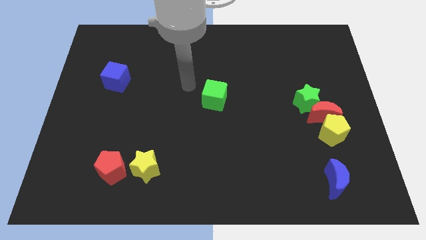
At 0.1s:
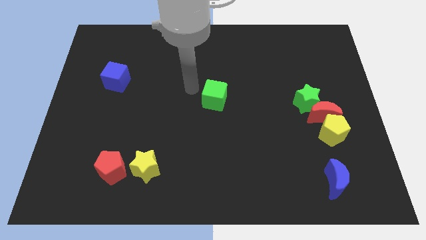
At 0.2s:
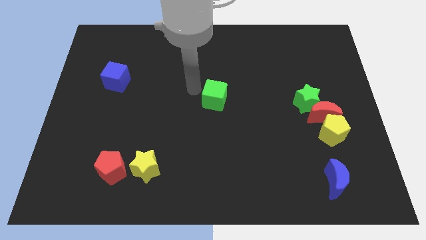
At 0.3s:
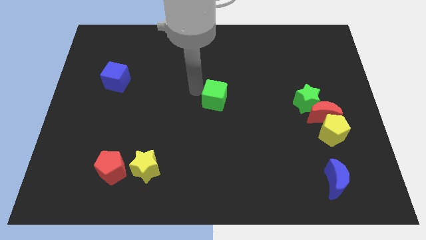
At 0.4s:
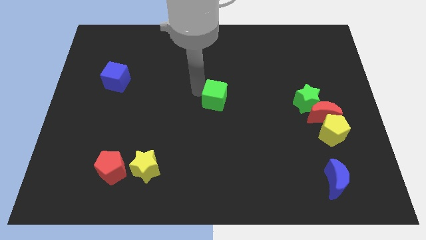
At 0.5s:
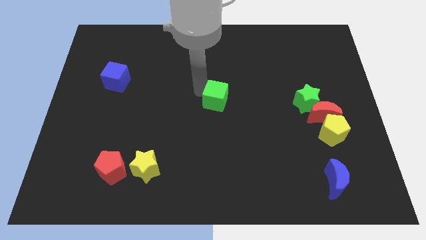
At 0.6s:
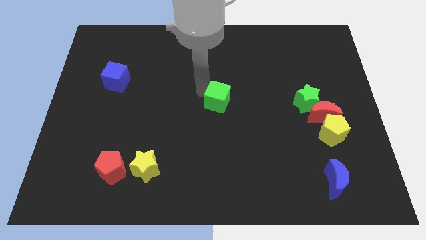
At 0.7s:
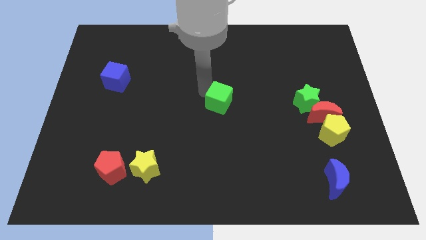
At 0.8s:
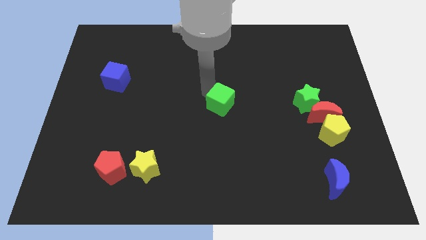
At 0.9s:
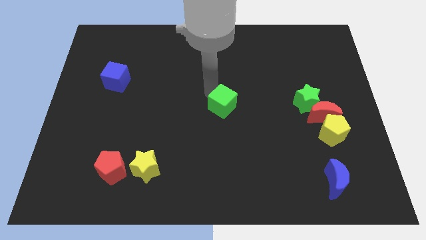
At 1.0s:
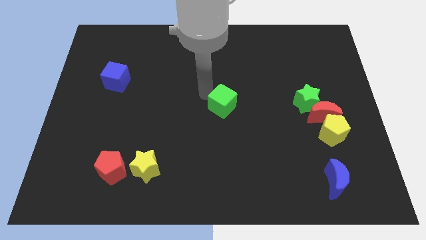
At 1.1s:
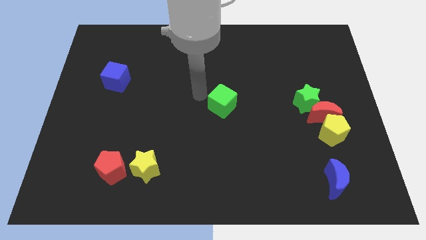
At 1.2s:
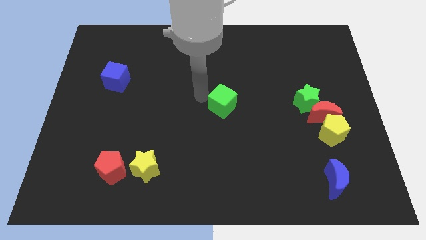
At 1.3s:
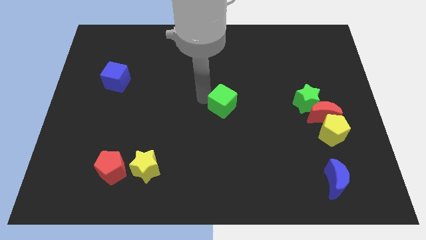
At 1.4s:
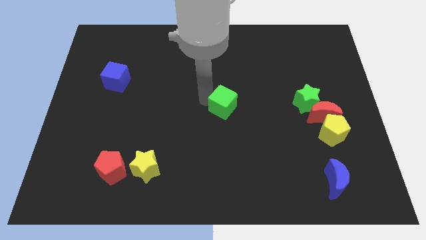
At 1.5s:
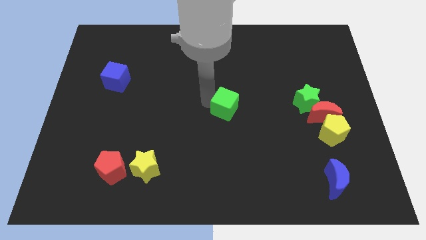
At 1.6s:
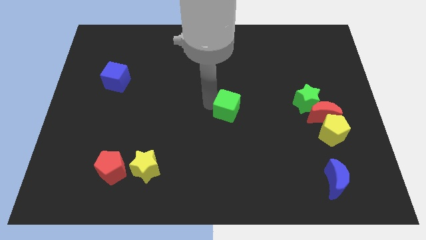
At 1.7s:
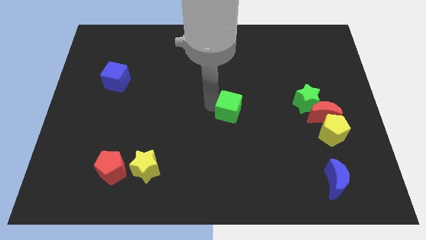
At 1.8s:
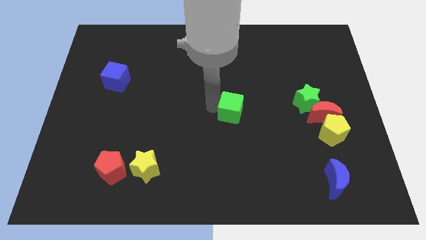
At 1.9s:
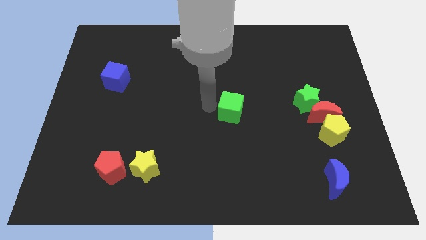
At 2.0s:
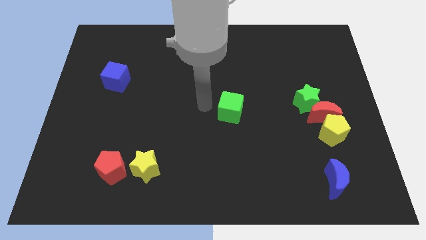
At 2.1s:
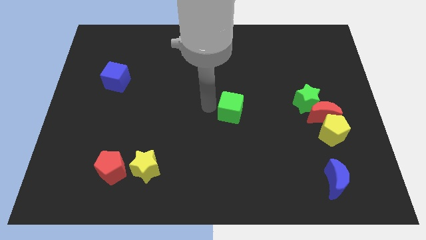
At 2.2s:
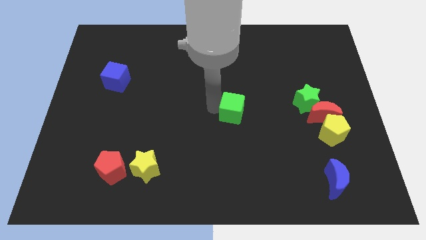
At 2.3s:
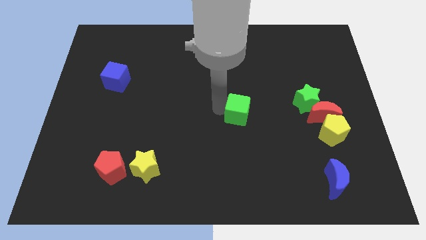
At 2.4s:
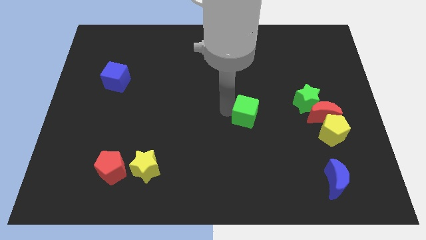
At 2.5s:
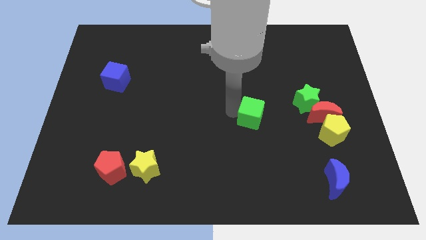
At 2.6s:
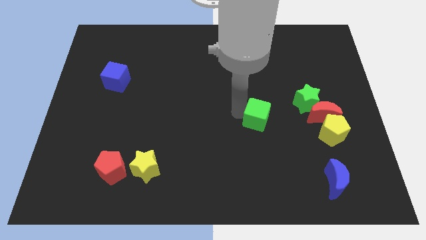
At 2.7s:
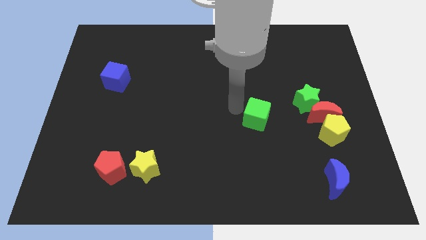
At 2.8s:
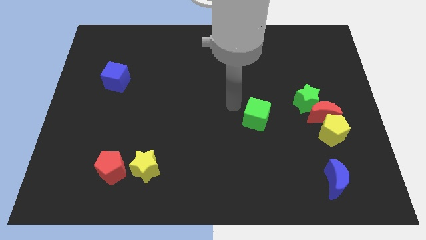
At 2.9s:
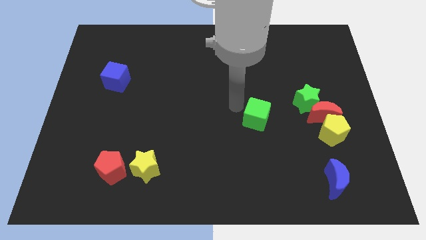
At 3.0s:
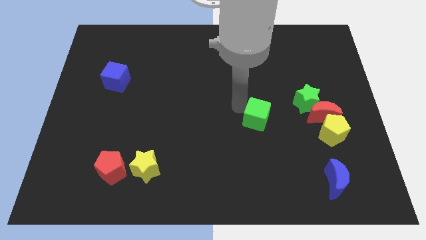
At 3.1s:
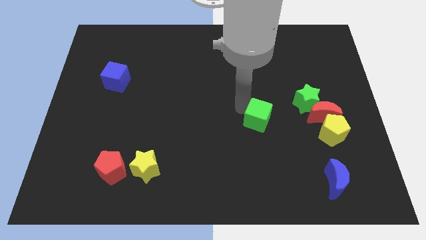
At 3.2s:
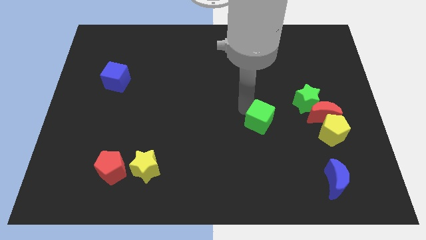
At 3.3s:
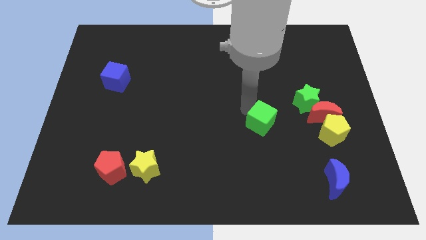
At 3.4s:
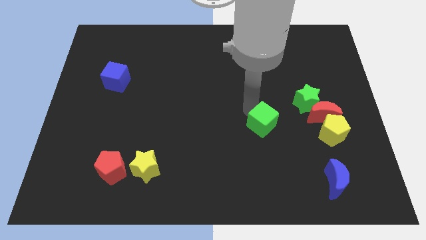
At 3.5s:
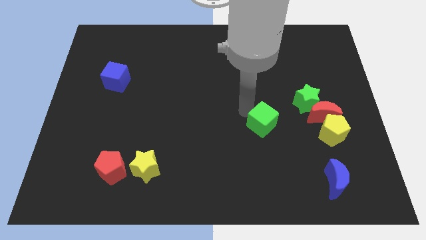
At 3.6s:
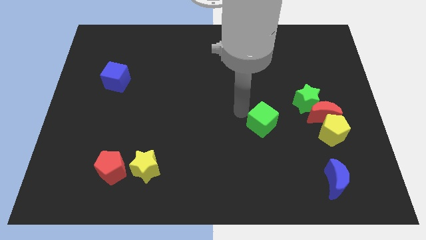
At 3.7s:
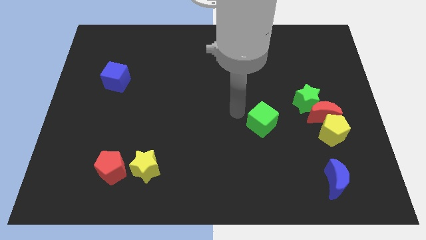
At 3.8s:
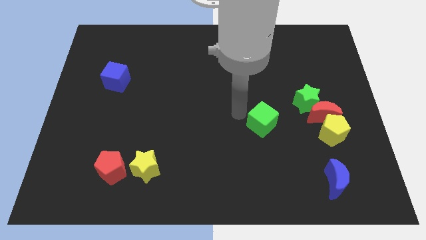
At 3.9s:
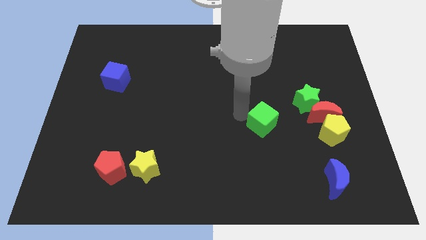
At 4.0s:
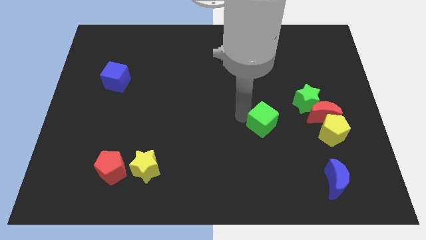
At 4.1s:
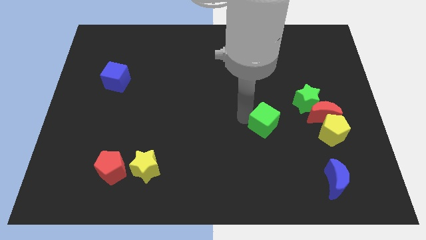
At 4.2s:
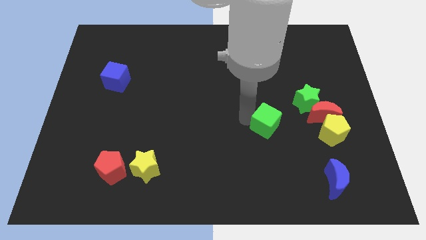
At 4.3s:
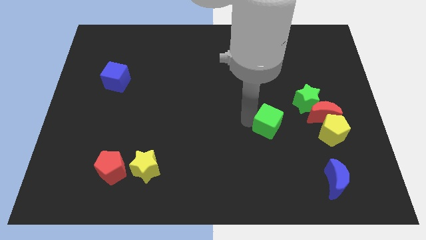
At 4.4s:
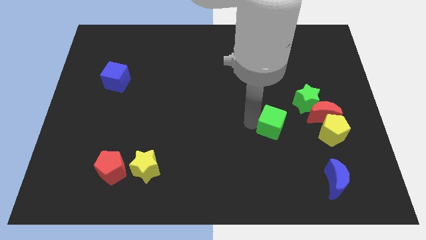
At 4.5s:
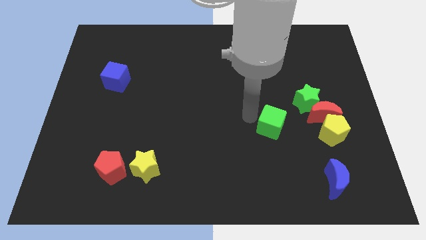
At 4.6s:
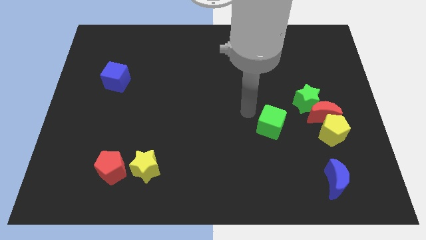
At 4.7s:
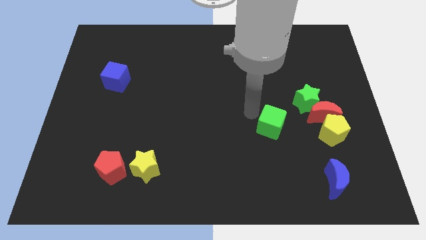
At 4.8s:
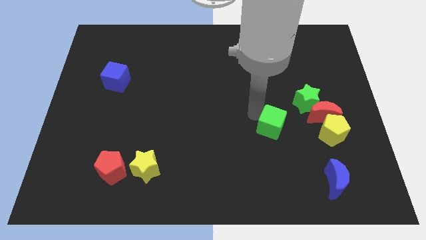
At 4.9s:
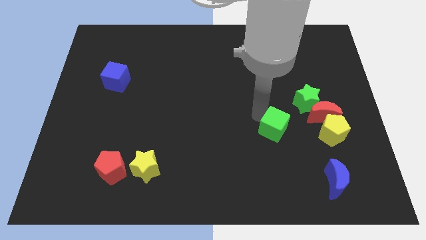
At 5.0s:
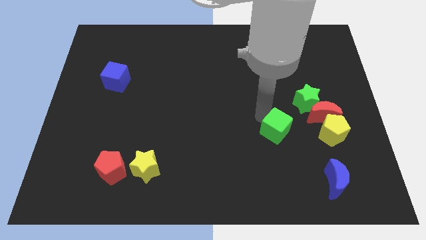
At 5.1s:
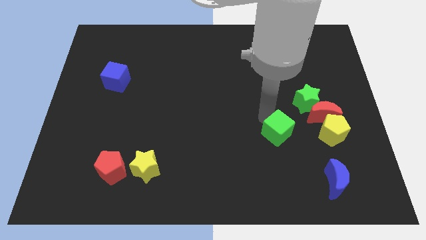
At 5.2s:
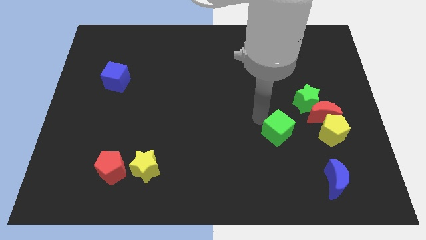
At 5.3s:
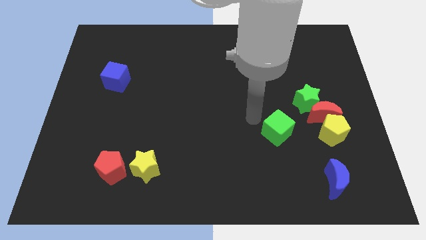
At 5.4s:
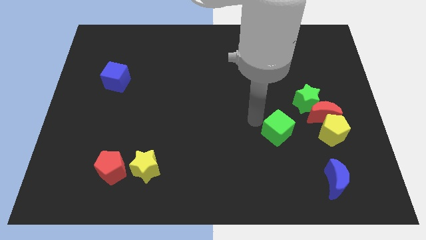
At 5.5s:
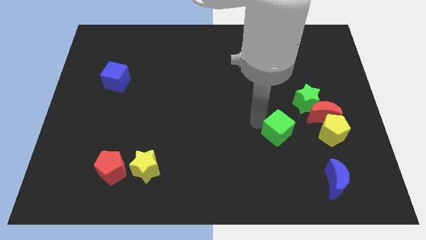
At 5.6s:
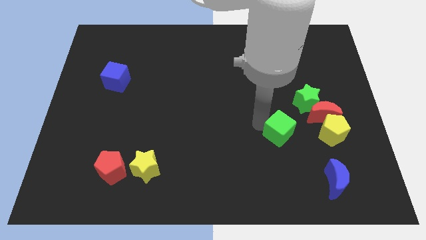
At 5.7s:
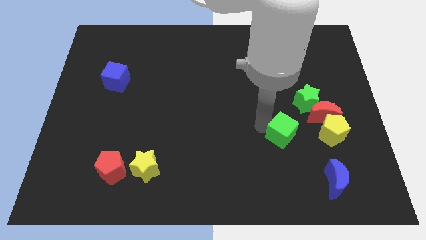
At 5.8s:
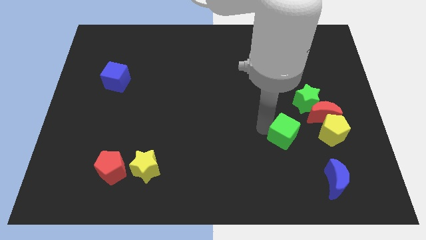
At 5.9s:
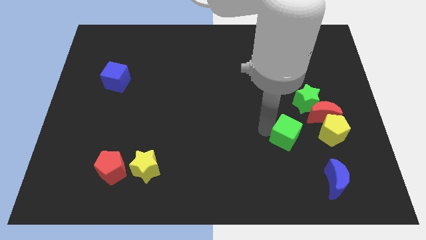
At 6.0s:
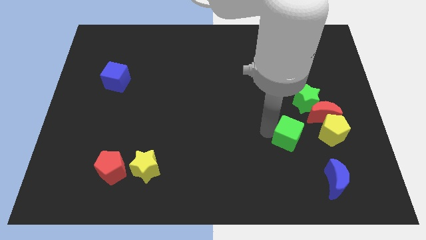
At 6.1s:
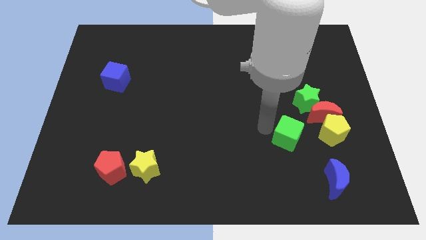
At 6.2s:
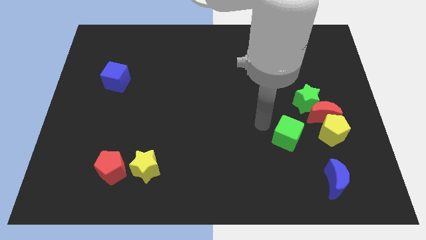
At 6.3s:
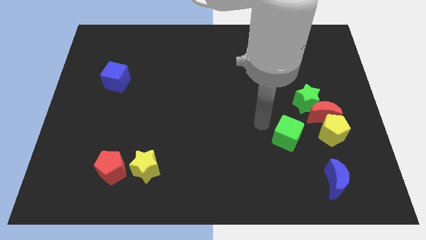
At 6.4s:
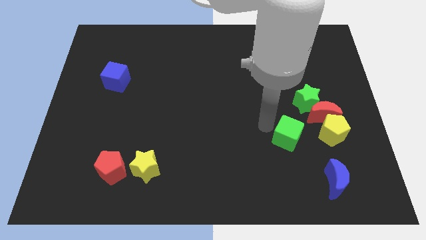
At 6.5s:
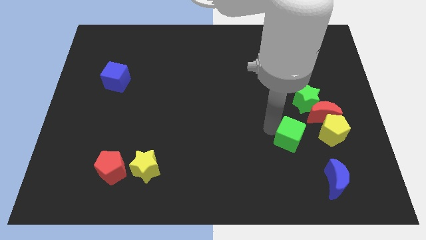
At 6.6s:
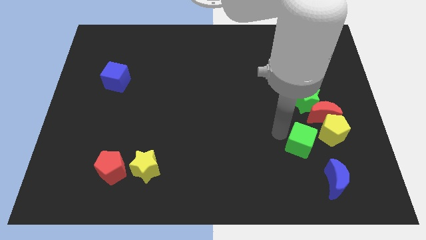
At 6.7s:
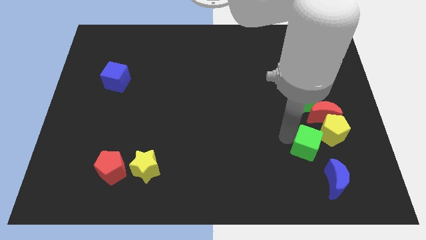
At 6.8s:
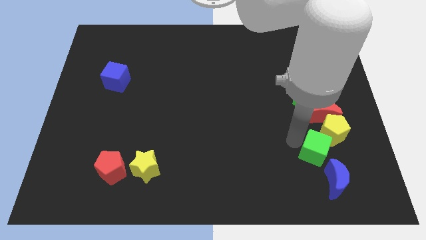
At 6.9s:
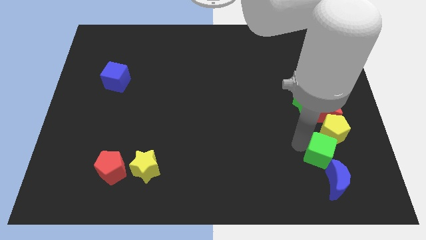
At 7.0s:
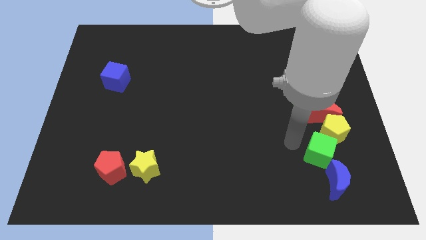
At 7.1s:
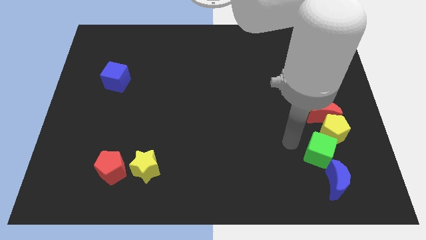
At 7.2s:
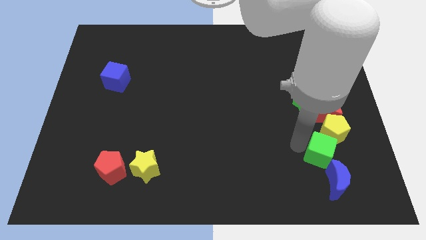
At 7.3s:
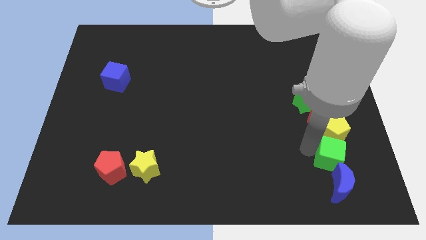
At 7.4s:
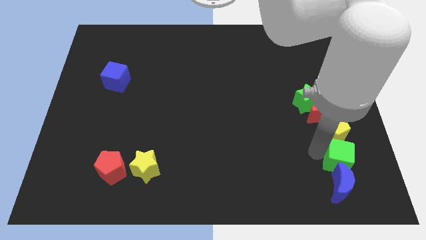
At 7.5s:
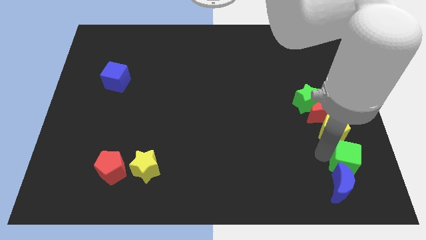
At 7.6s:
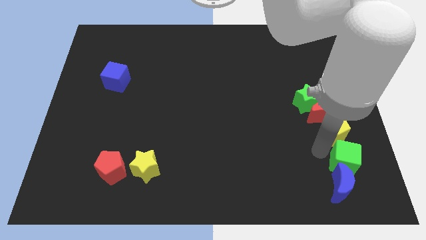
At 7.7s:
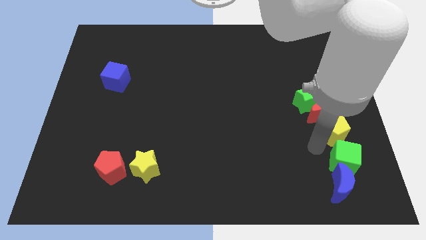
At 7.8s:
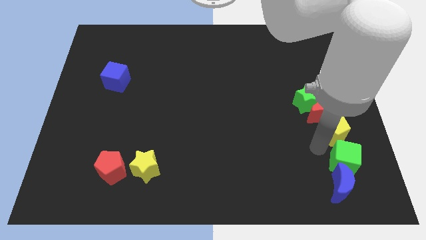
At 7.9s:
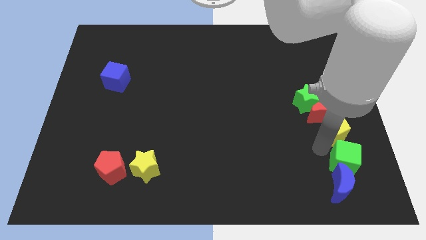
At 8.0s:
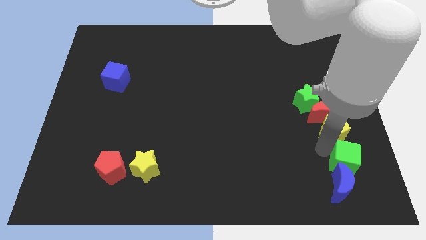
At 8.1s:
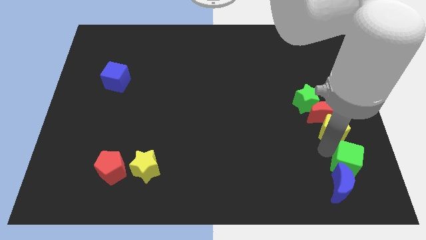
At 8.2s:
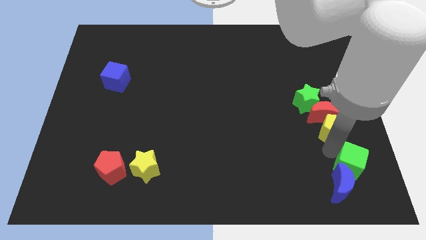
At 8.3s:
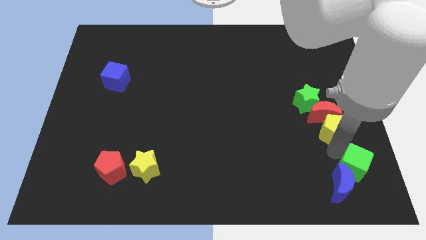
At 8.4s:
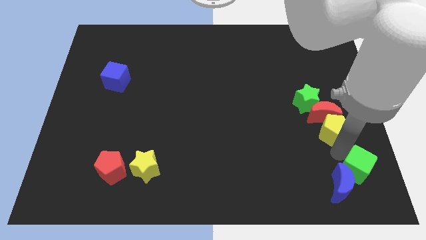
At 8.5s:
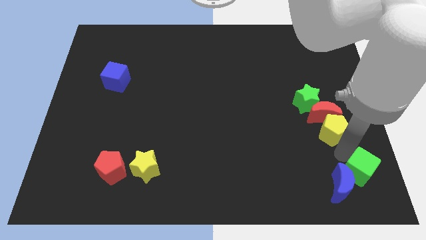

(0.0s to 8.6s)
move the green cube to the bottom right corner
